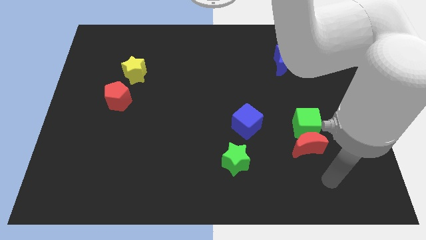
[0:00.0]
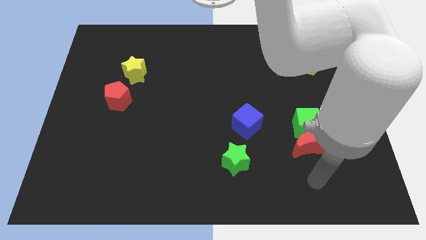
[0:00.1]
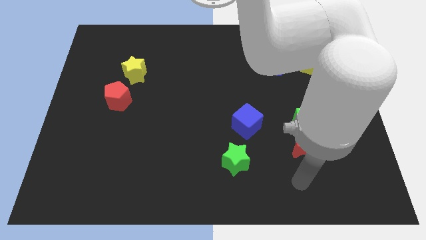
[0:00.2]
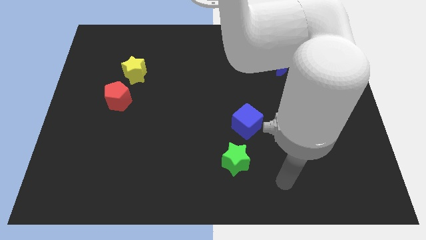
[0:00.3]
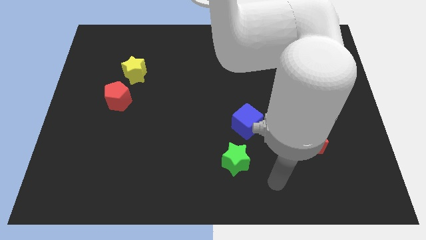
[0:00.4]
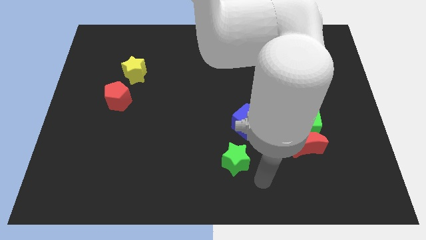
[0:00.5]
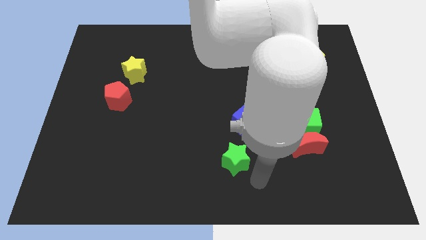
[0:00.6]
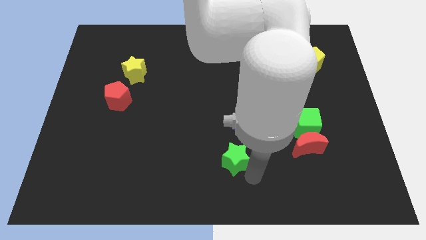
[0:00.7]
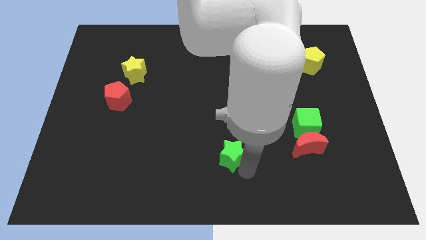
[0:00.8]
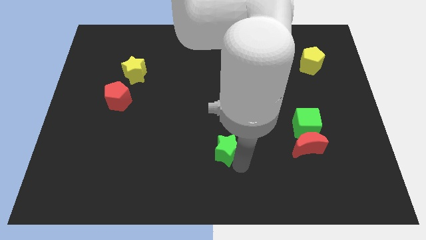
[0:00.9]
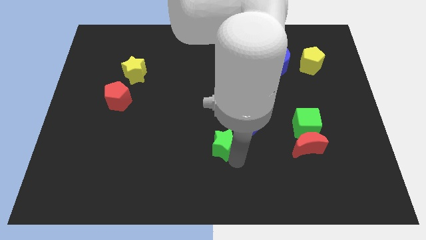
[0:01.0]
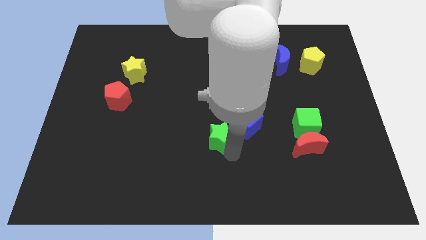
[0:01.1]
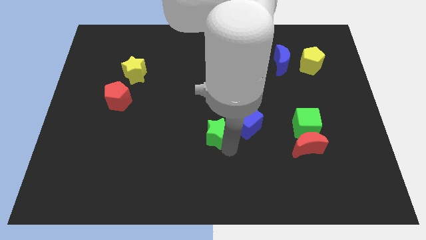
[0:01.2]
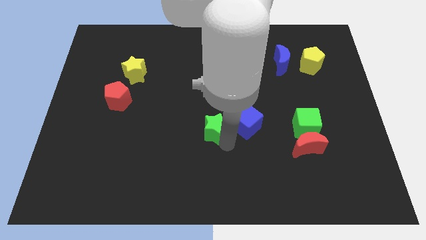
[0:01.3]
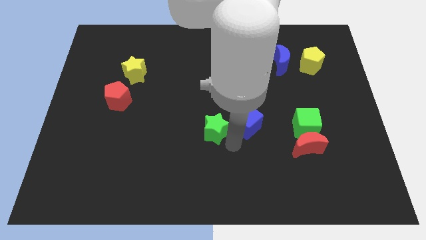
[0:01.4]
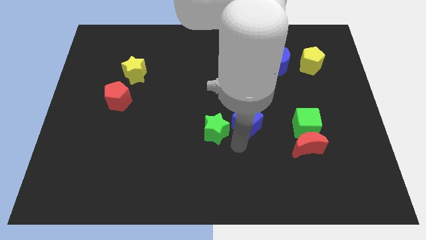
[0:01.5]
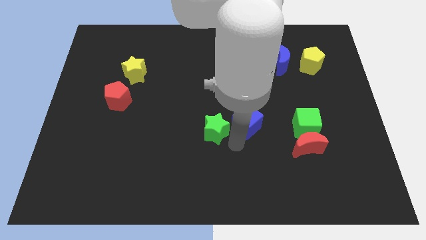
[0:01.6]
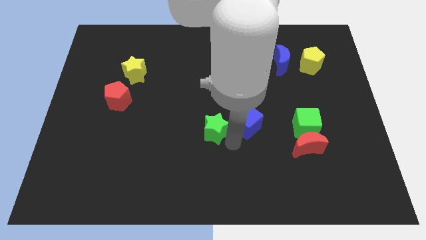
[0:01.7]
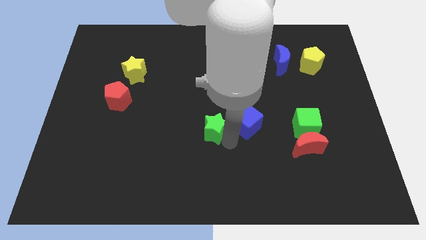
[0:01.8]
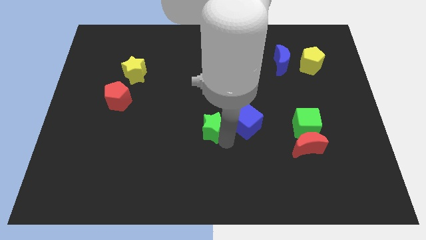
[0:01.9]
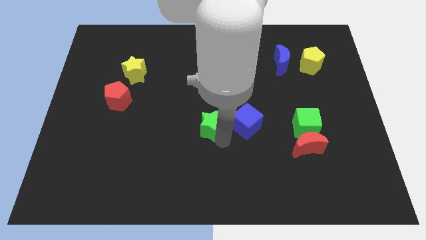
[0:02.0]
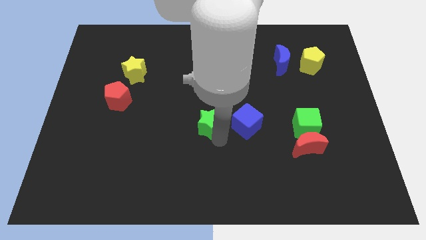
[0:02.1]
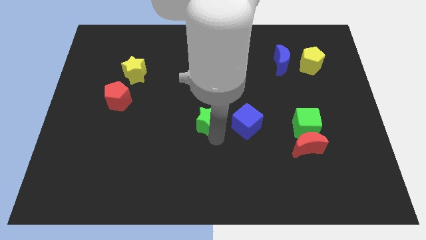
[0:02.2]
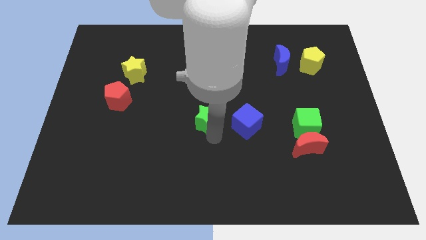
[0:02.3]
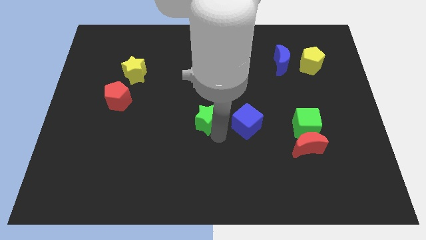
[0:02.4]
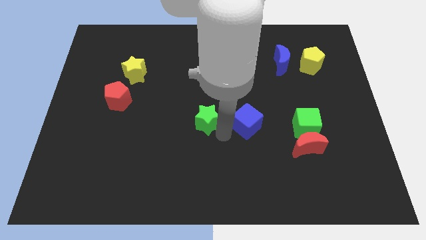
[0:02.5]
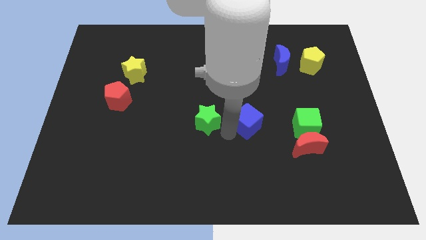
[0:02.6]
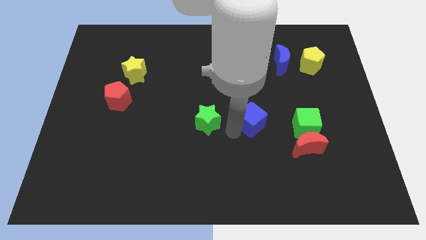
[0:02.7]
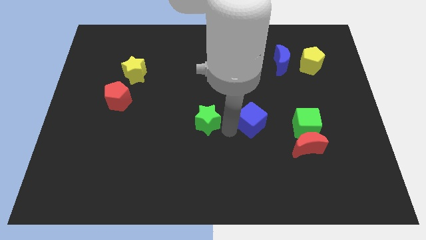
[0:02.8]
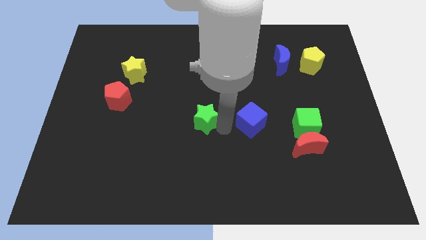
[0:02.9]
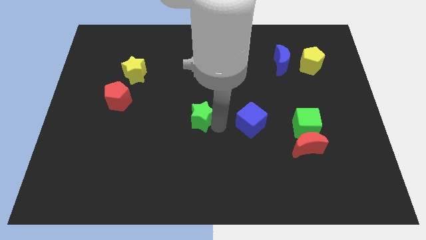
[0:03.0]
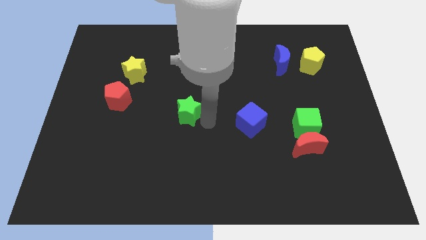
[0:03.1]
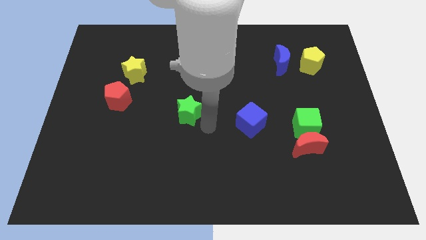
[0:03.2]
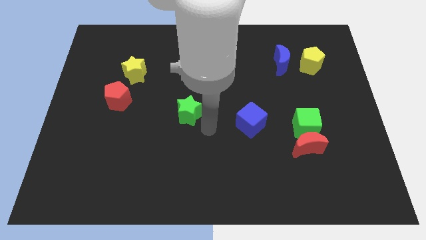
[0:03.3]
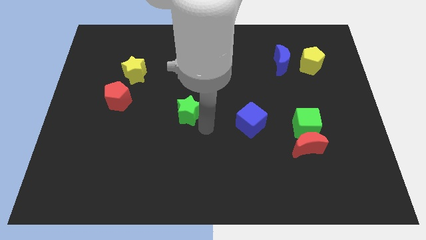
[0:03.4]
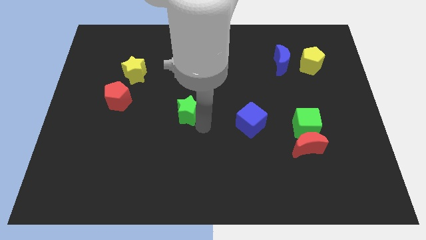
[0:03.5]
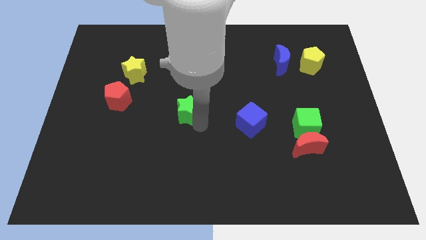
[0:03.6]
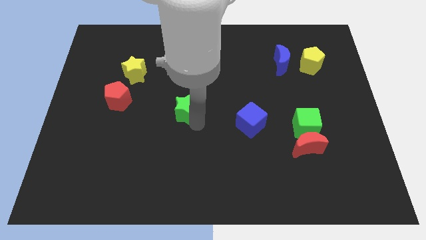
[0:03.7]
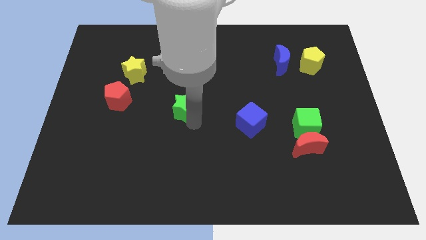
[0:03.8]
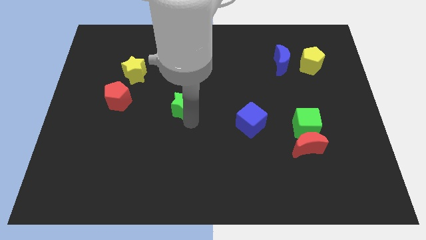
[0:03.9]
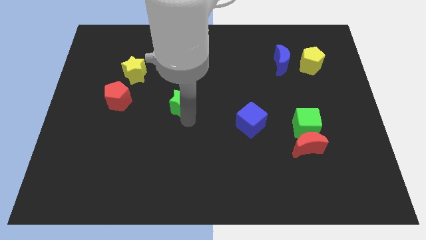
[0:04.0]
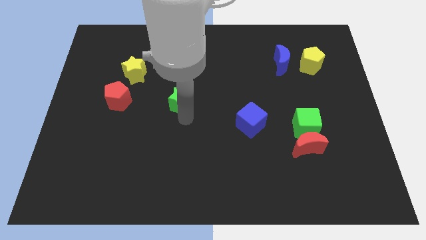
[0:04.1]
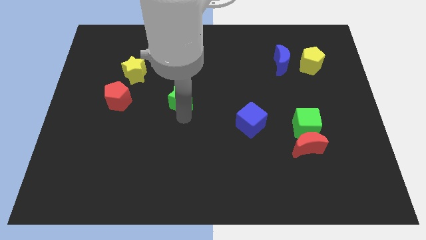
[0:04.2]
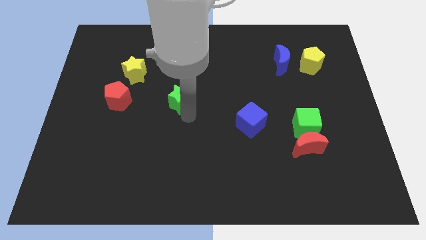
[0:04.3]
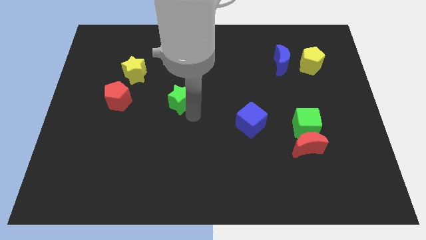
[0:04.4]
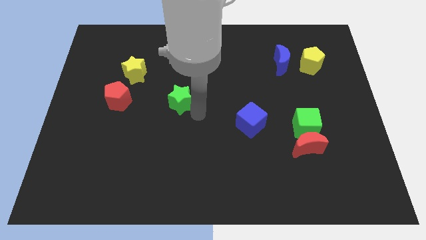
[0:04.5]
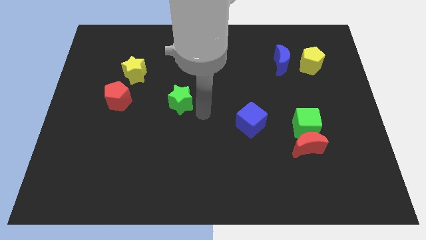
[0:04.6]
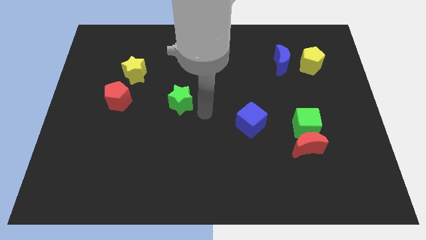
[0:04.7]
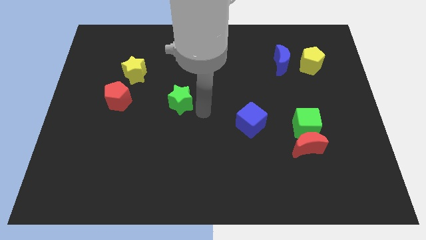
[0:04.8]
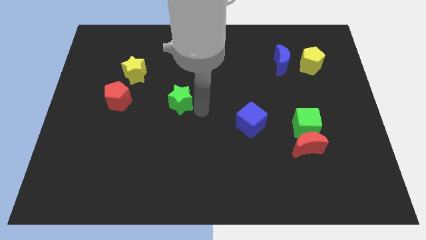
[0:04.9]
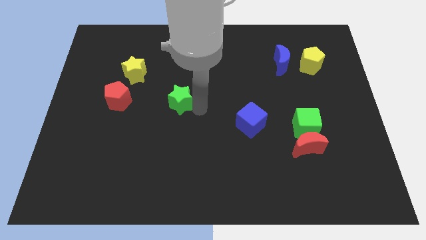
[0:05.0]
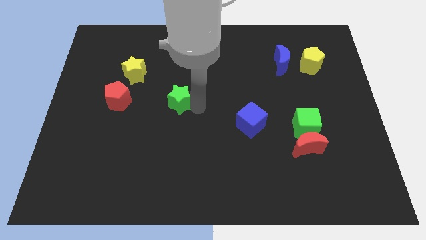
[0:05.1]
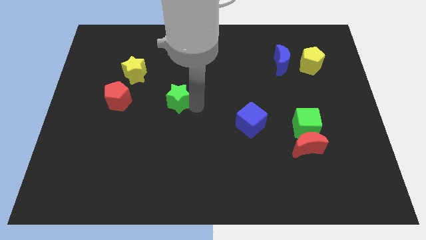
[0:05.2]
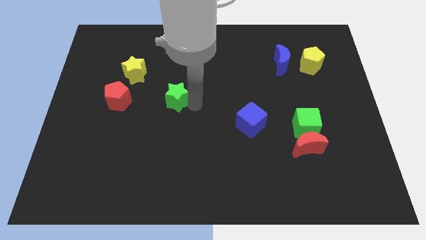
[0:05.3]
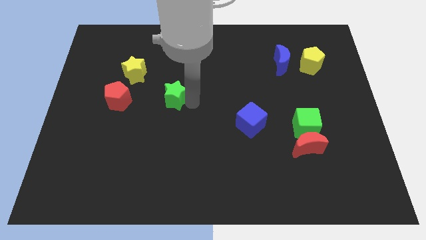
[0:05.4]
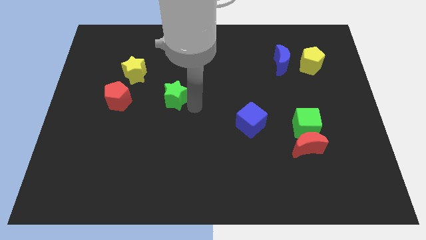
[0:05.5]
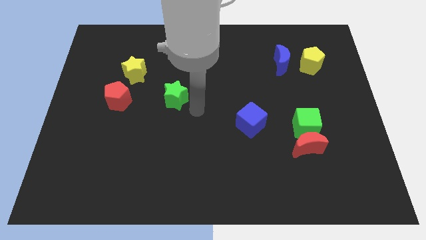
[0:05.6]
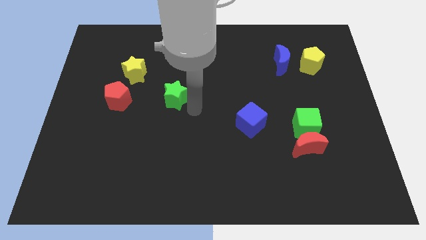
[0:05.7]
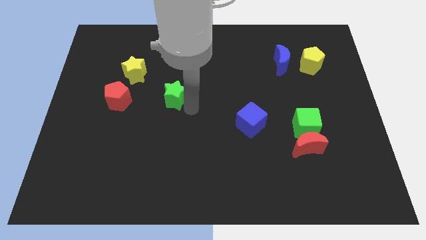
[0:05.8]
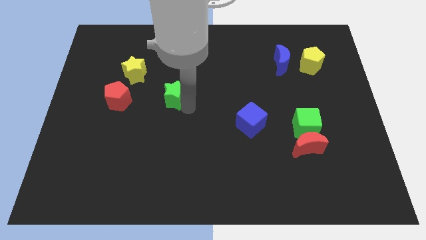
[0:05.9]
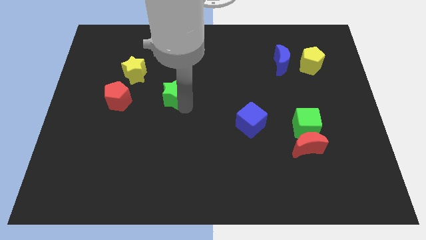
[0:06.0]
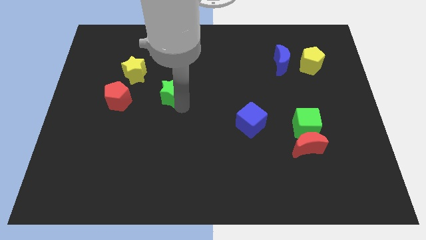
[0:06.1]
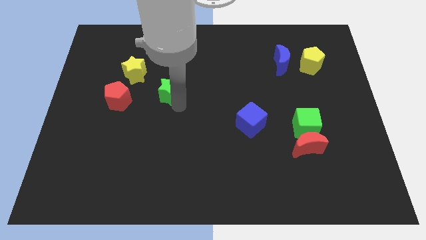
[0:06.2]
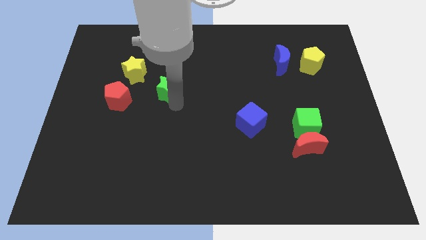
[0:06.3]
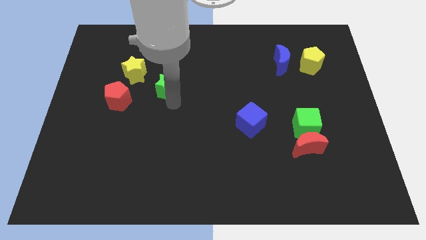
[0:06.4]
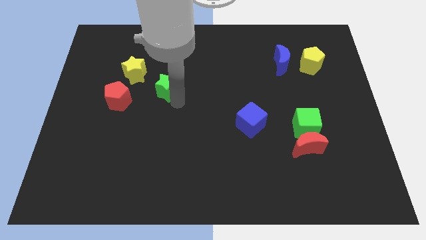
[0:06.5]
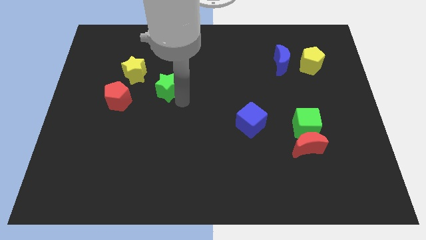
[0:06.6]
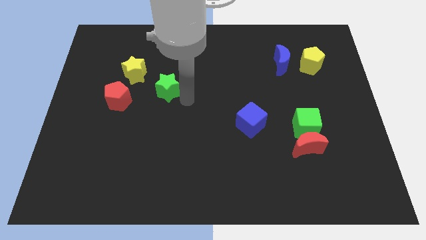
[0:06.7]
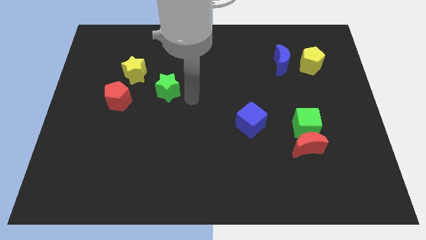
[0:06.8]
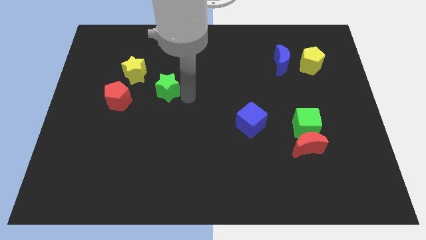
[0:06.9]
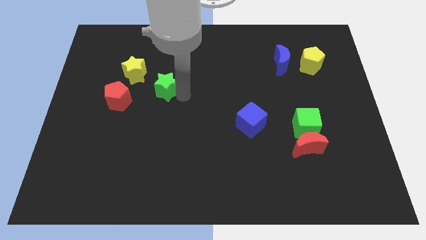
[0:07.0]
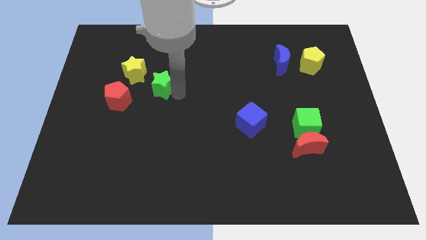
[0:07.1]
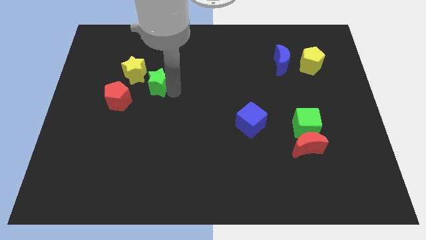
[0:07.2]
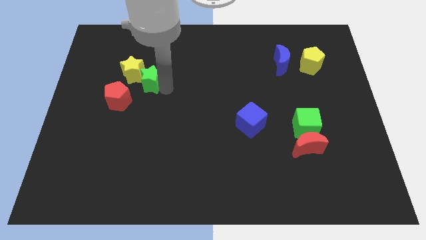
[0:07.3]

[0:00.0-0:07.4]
move the green star next to the yellow star
